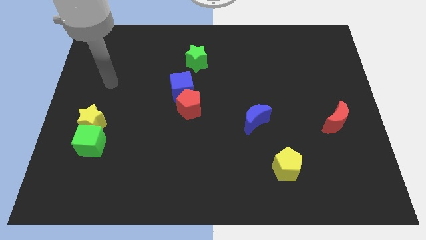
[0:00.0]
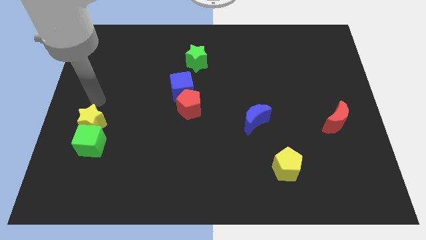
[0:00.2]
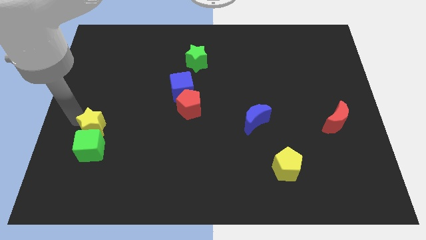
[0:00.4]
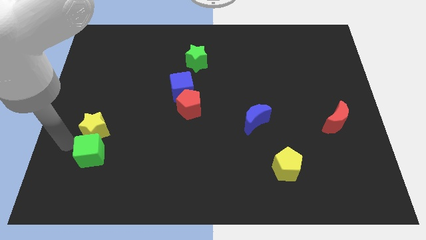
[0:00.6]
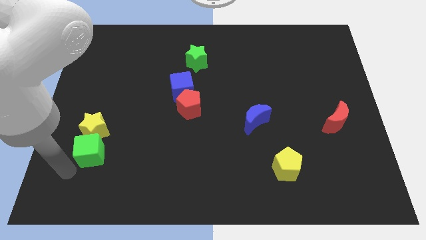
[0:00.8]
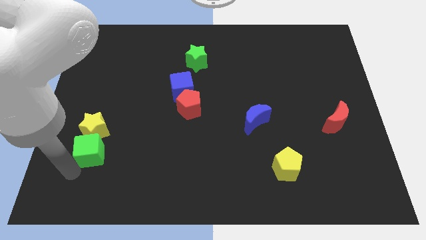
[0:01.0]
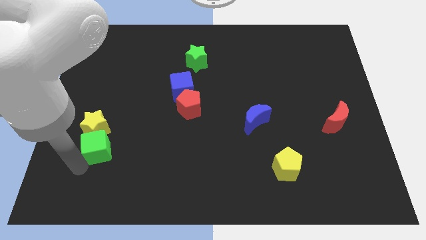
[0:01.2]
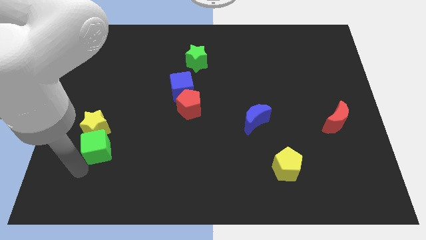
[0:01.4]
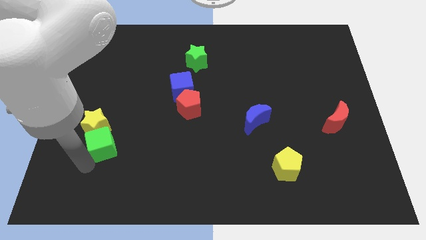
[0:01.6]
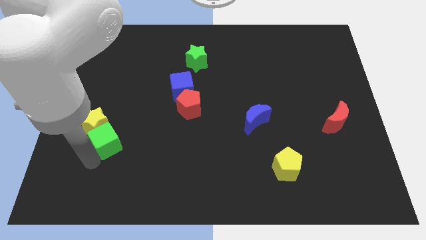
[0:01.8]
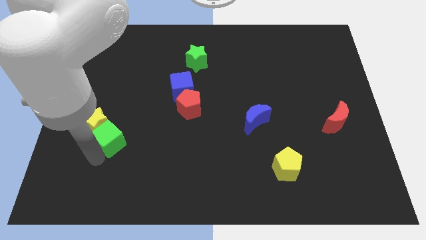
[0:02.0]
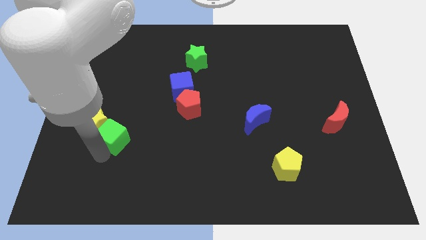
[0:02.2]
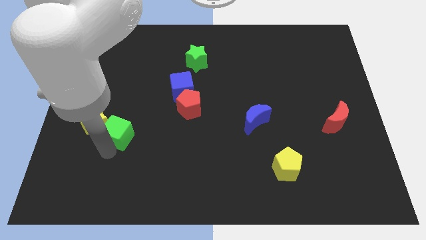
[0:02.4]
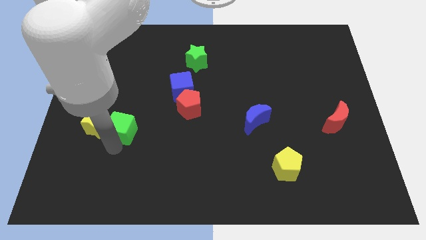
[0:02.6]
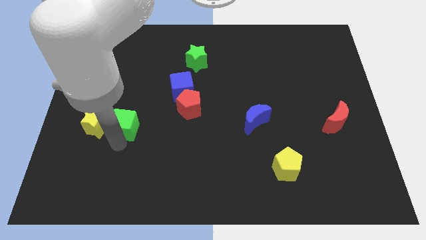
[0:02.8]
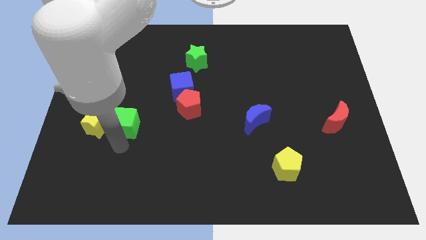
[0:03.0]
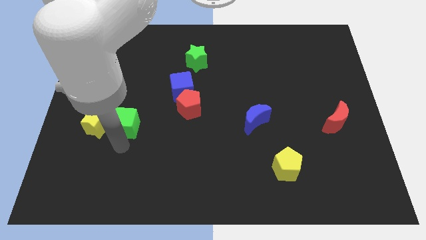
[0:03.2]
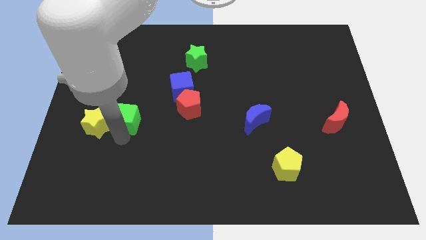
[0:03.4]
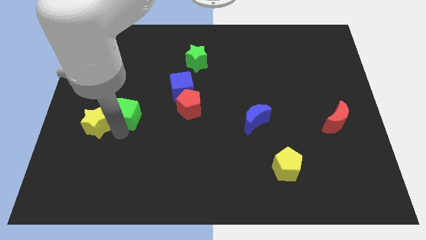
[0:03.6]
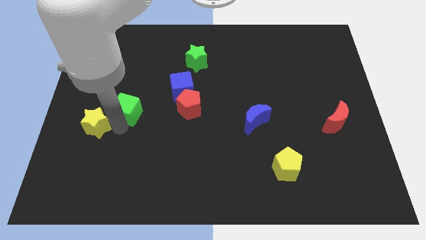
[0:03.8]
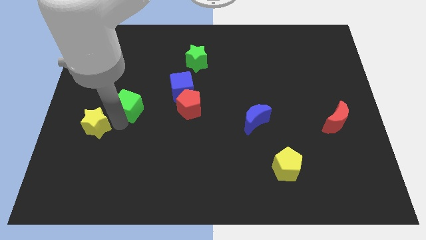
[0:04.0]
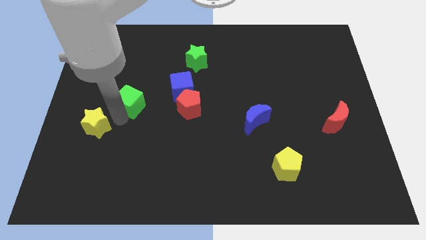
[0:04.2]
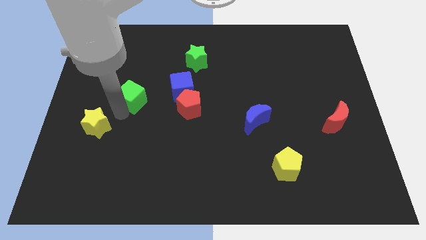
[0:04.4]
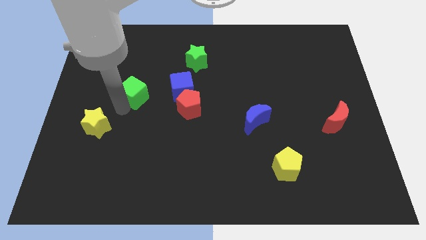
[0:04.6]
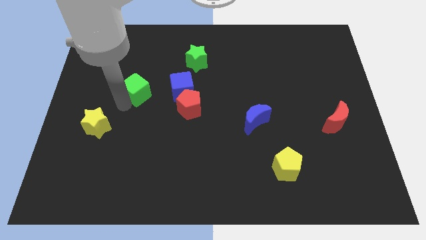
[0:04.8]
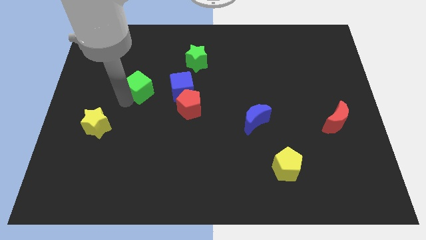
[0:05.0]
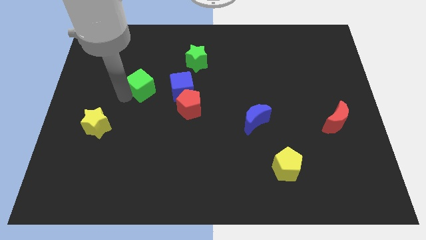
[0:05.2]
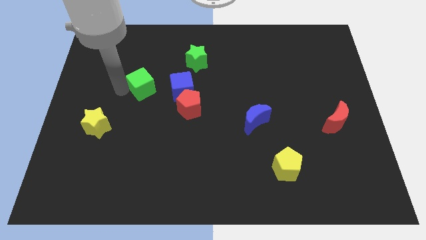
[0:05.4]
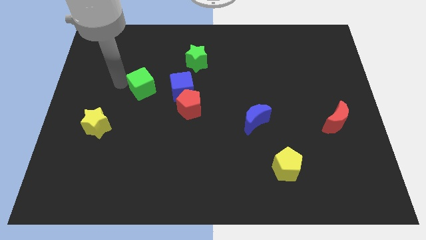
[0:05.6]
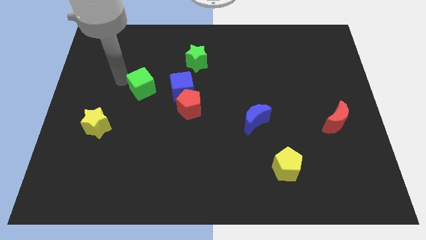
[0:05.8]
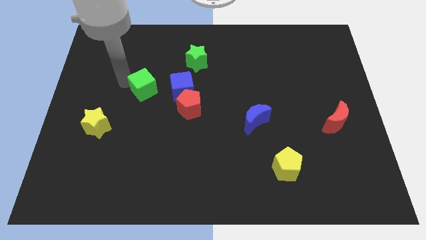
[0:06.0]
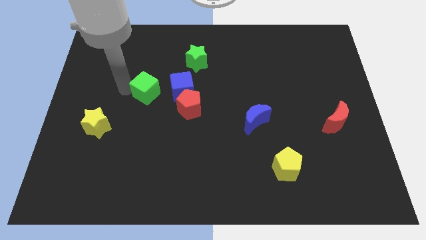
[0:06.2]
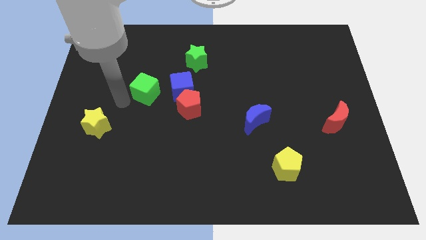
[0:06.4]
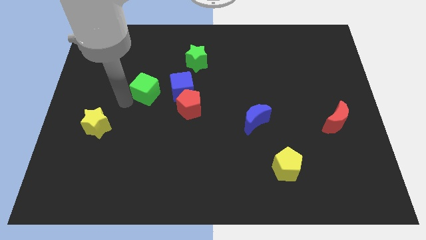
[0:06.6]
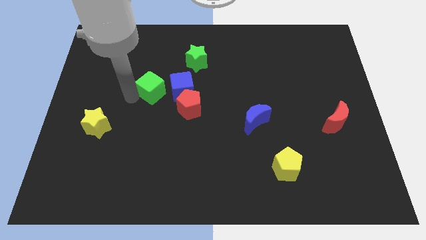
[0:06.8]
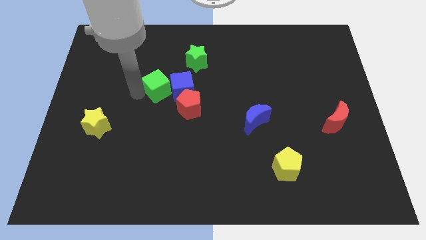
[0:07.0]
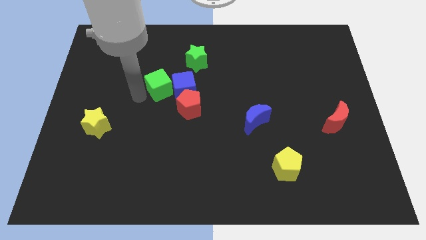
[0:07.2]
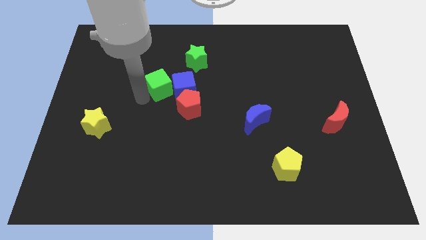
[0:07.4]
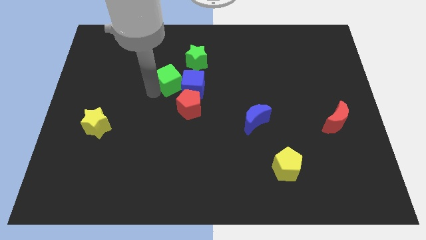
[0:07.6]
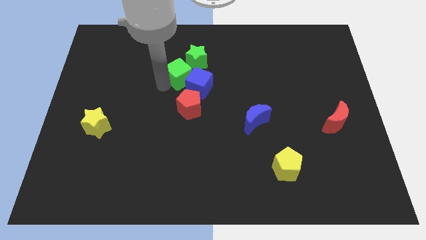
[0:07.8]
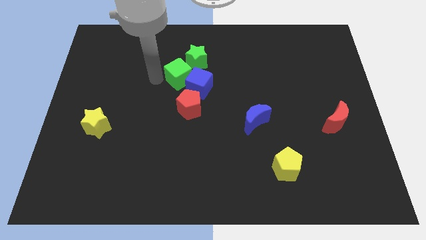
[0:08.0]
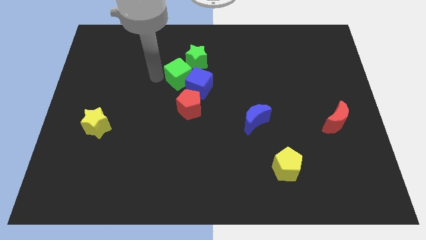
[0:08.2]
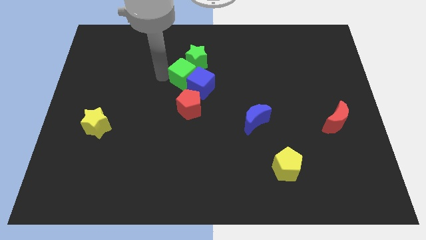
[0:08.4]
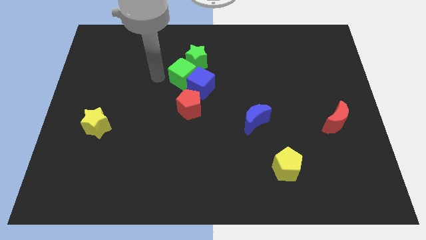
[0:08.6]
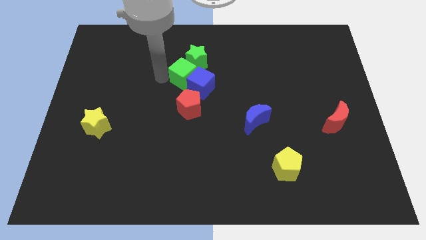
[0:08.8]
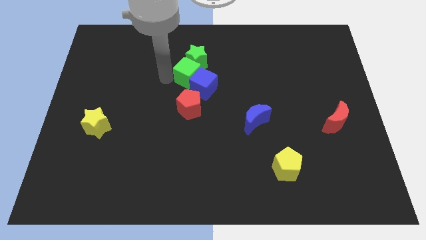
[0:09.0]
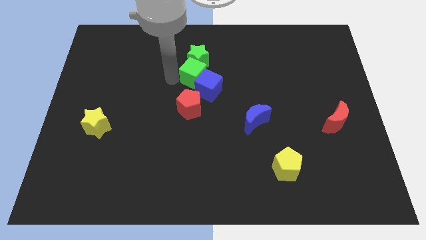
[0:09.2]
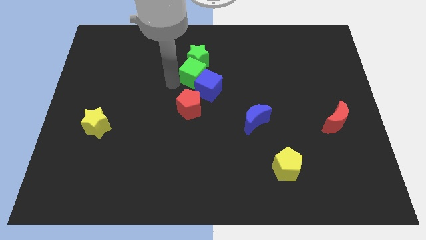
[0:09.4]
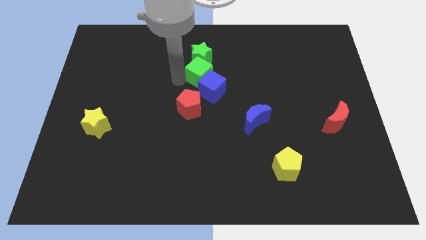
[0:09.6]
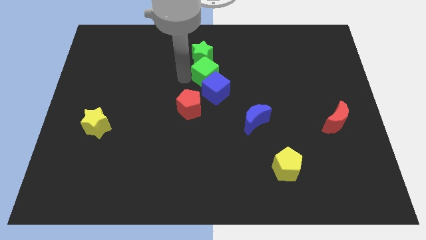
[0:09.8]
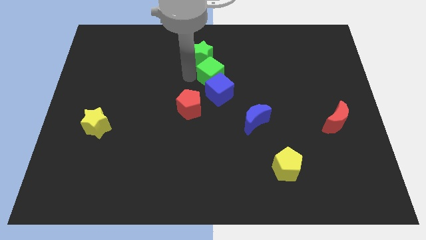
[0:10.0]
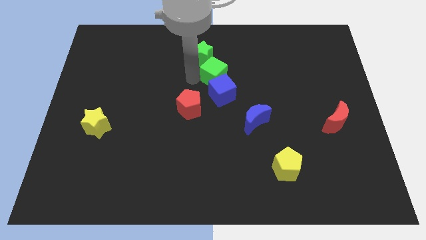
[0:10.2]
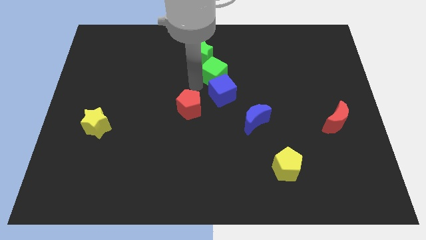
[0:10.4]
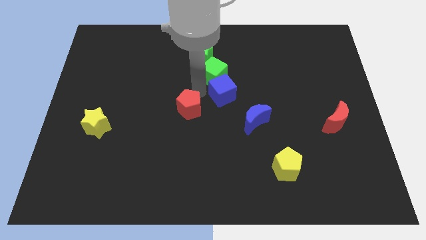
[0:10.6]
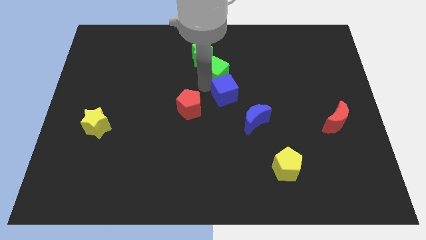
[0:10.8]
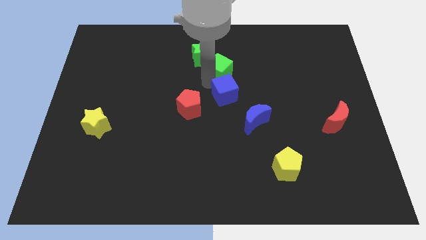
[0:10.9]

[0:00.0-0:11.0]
move the green cube to the right side of the green star

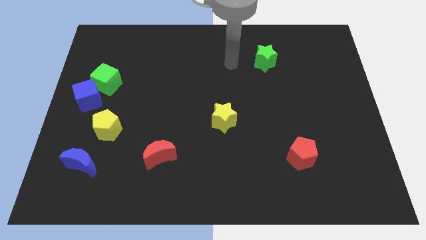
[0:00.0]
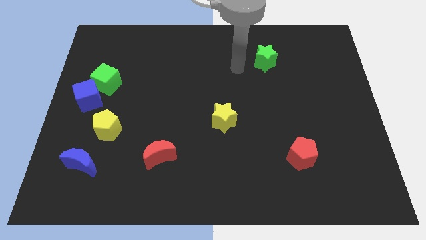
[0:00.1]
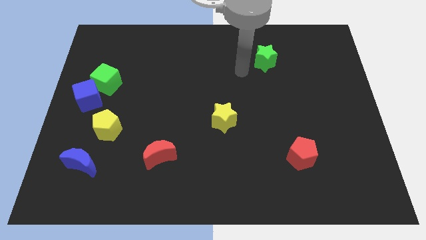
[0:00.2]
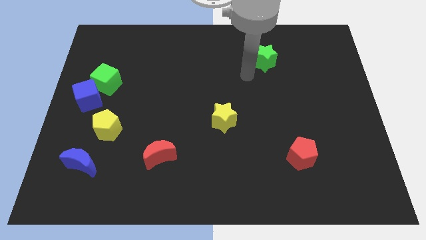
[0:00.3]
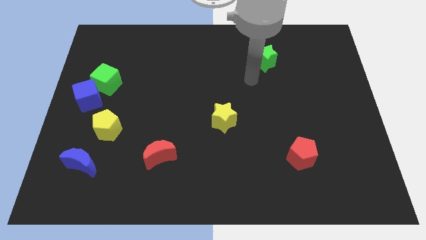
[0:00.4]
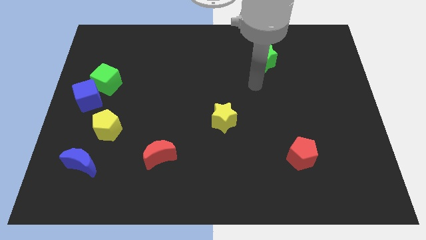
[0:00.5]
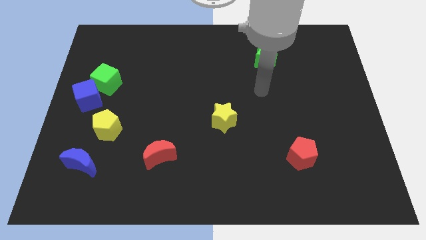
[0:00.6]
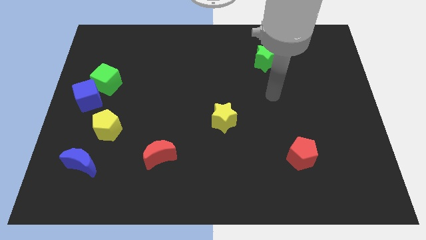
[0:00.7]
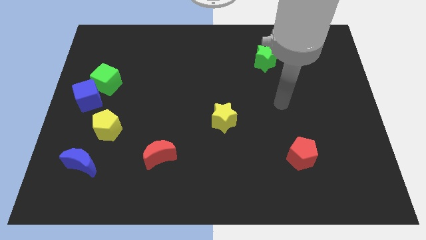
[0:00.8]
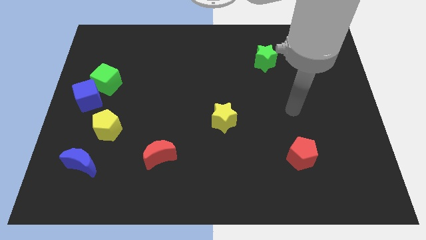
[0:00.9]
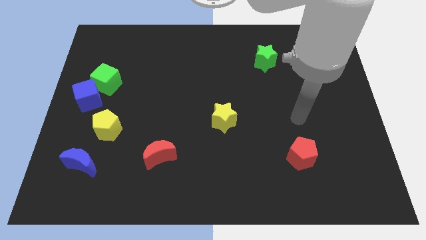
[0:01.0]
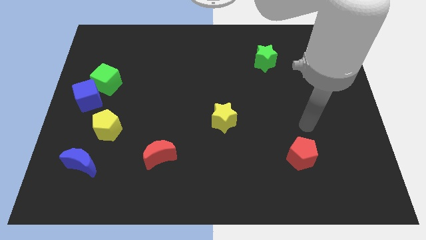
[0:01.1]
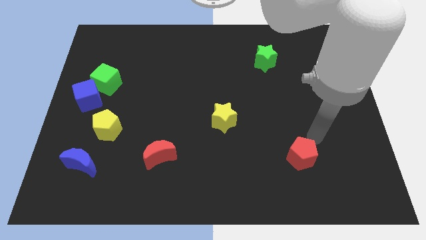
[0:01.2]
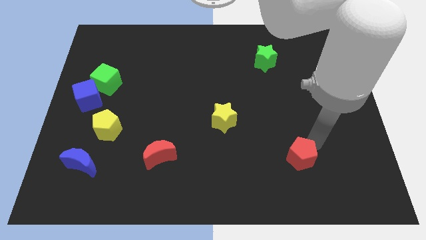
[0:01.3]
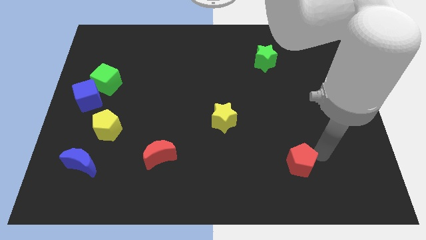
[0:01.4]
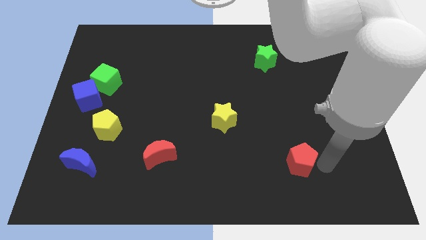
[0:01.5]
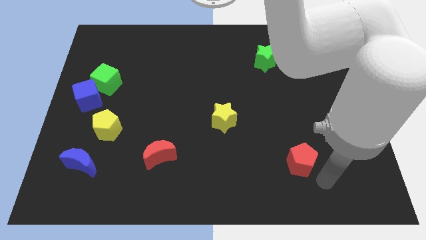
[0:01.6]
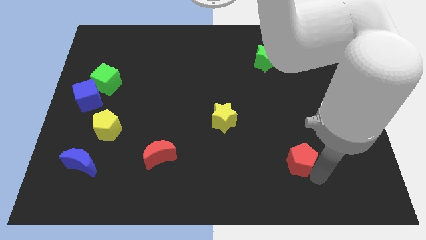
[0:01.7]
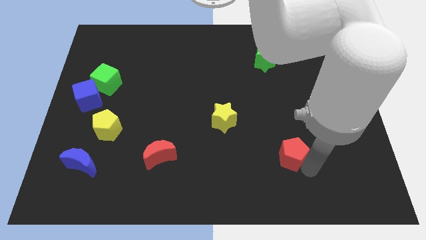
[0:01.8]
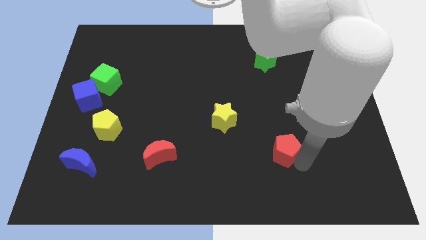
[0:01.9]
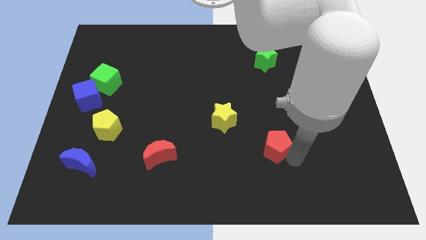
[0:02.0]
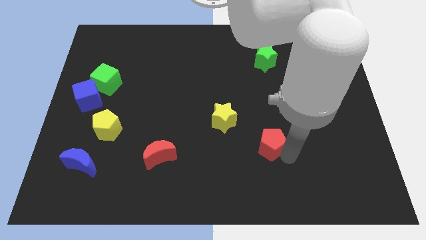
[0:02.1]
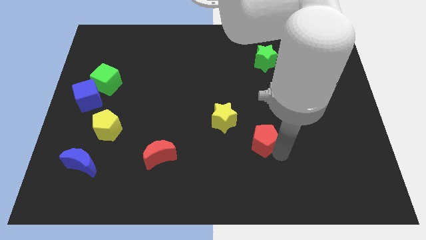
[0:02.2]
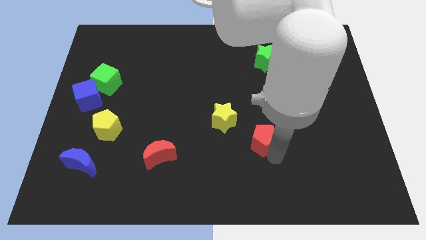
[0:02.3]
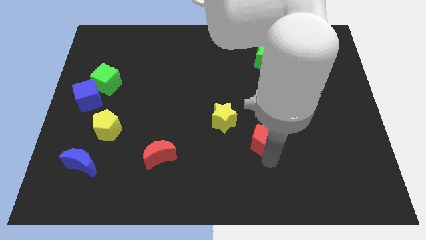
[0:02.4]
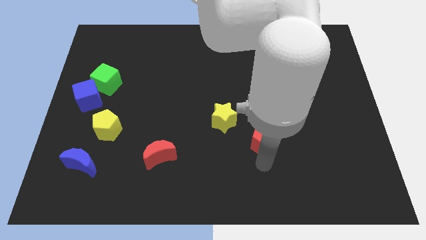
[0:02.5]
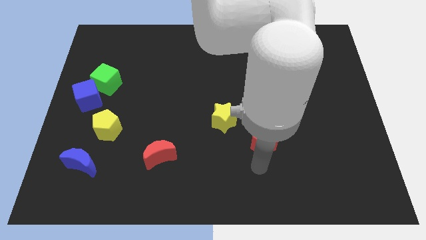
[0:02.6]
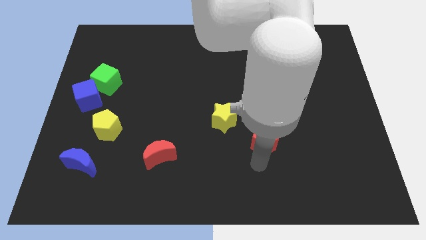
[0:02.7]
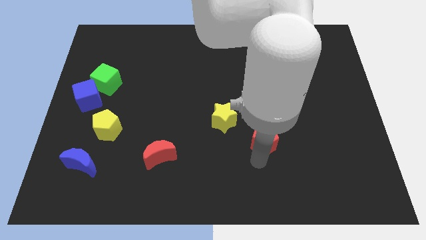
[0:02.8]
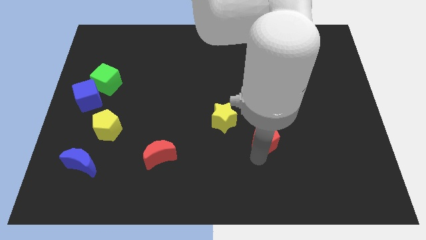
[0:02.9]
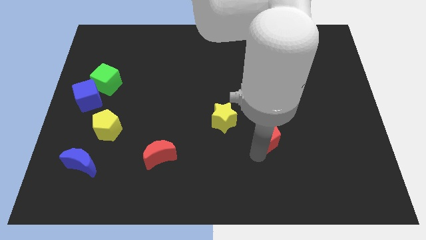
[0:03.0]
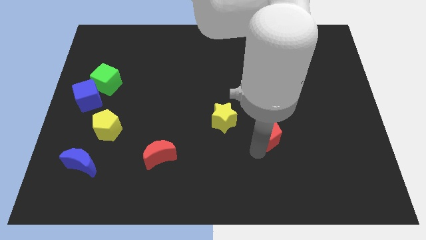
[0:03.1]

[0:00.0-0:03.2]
move the red pentagon to the right side of the yellow star
